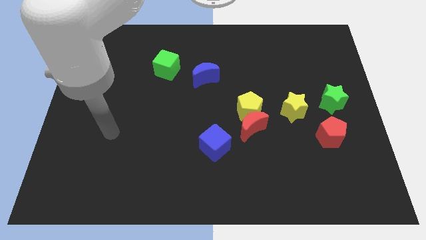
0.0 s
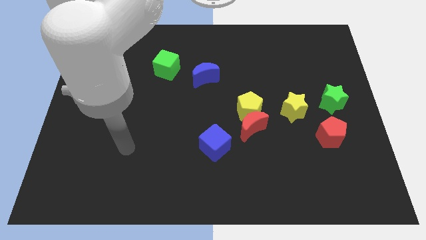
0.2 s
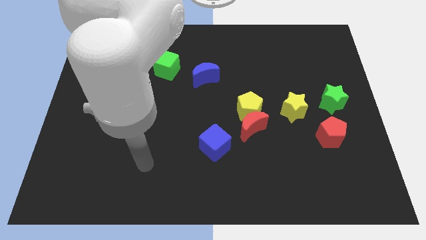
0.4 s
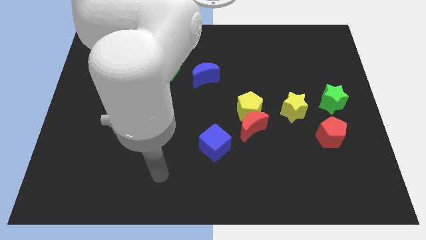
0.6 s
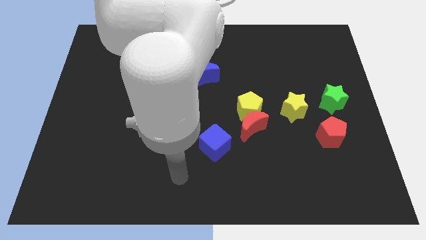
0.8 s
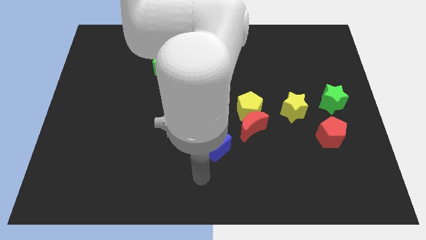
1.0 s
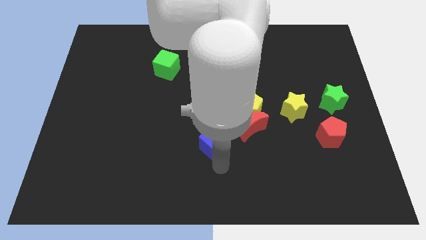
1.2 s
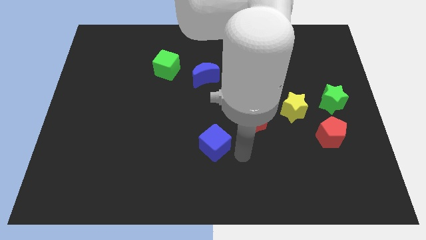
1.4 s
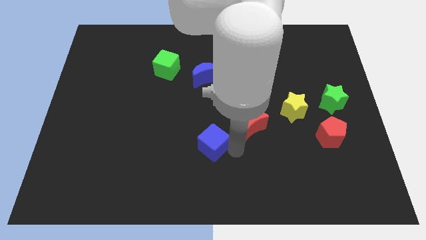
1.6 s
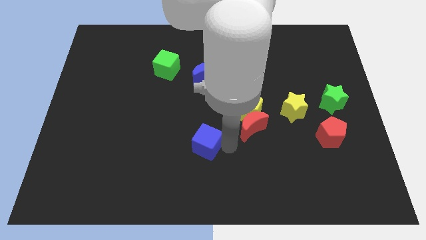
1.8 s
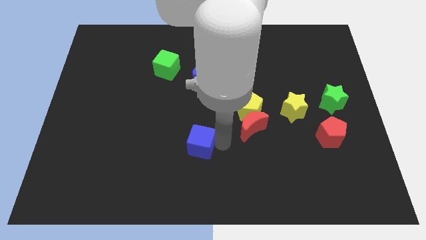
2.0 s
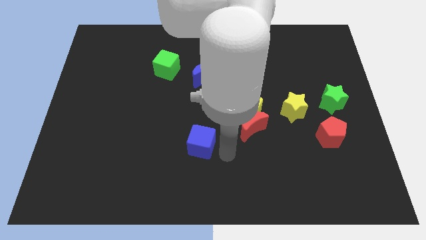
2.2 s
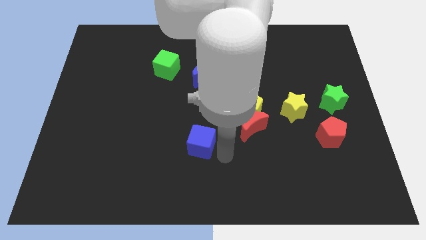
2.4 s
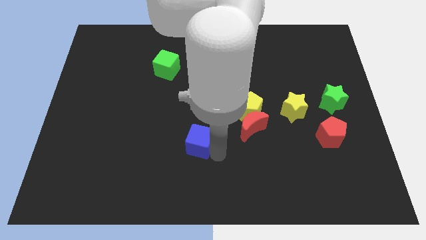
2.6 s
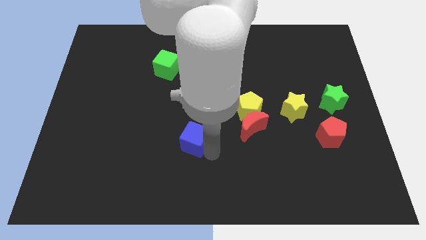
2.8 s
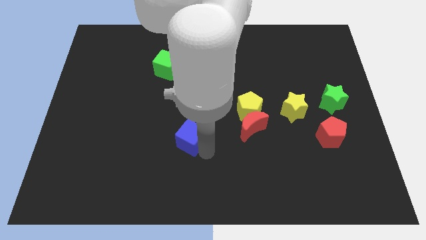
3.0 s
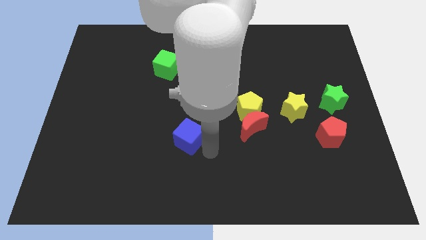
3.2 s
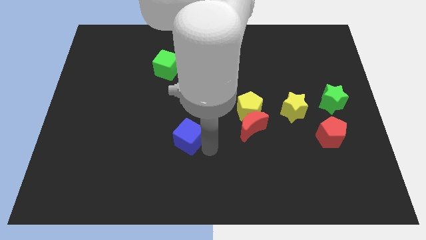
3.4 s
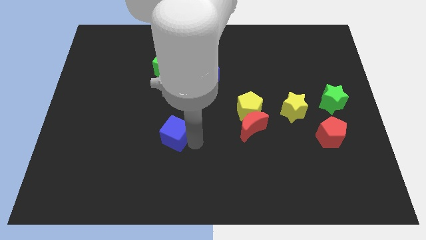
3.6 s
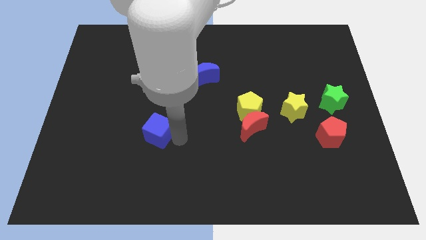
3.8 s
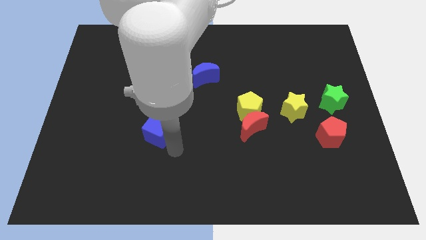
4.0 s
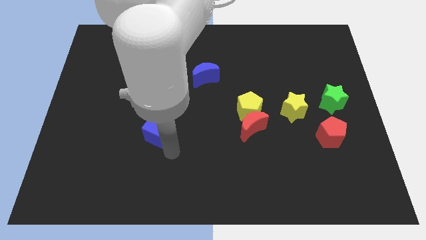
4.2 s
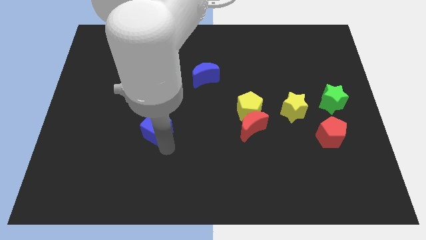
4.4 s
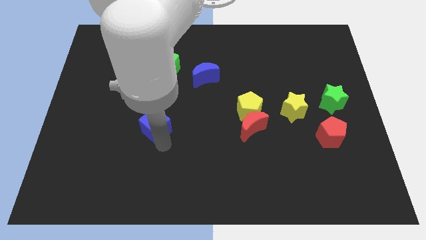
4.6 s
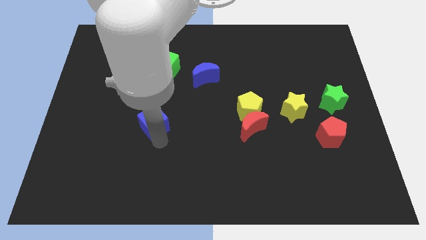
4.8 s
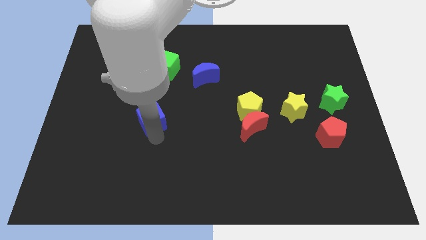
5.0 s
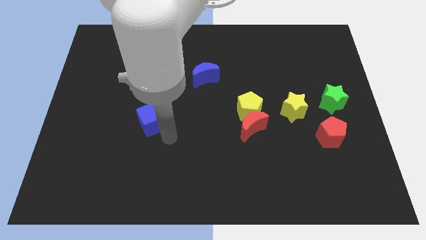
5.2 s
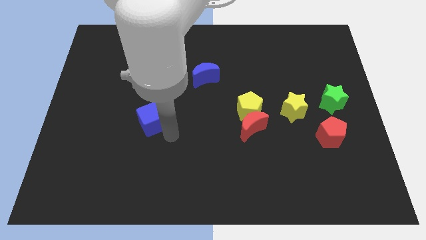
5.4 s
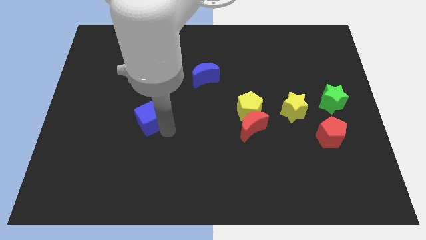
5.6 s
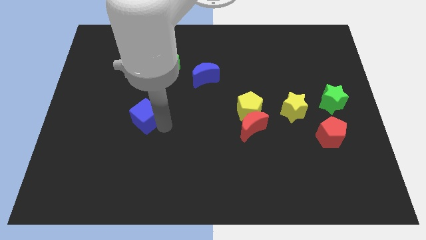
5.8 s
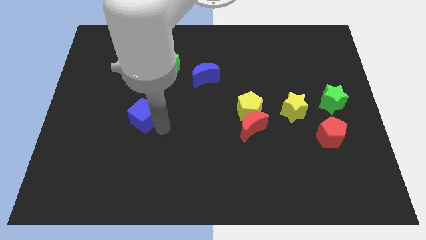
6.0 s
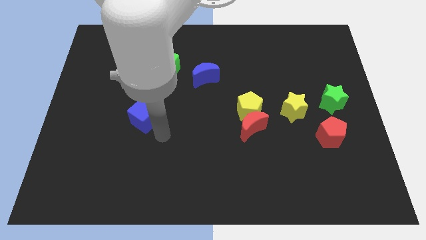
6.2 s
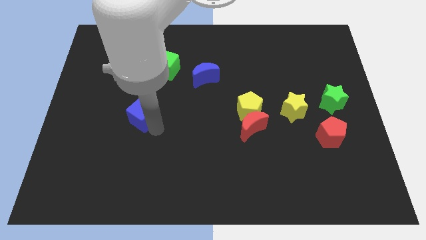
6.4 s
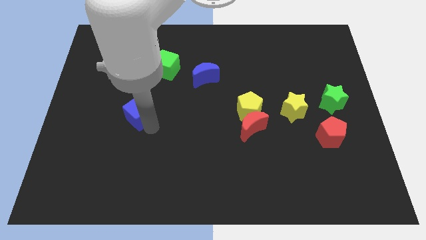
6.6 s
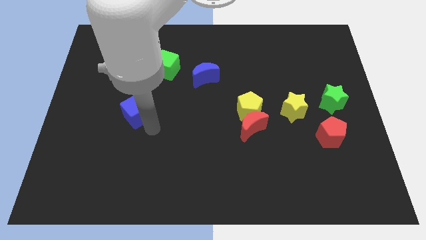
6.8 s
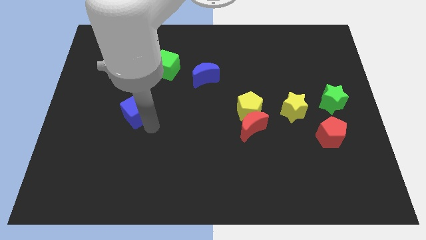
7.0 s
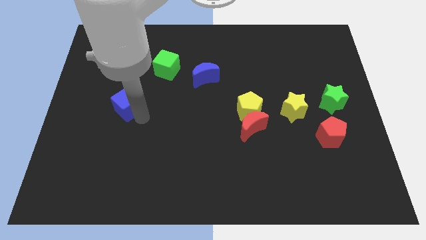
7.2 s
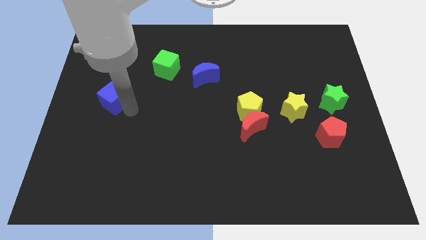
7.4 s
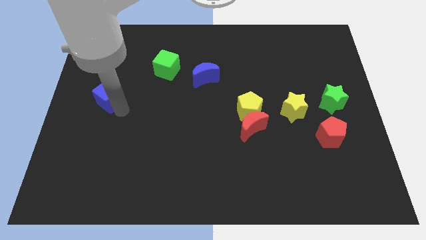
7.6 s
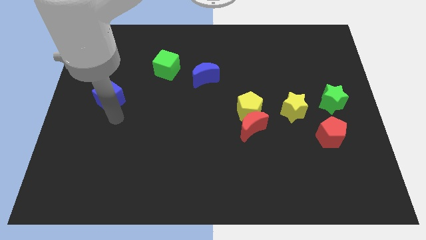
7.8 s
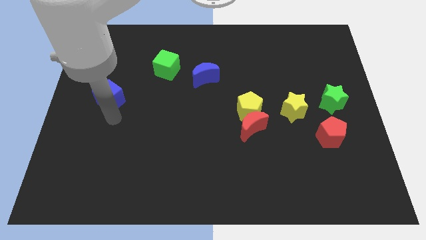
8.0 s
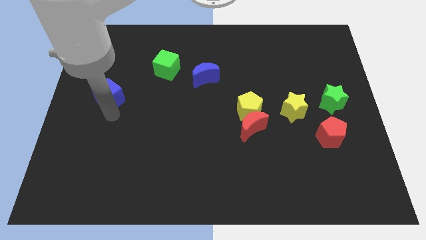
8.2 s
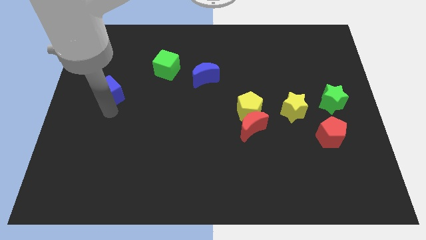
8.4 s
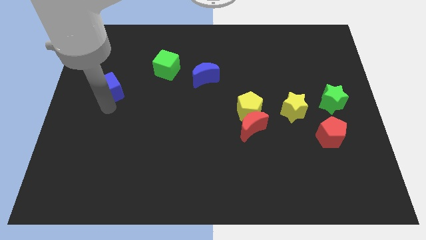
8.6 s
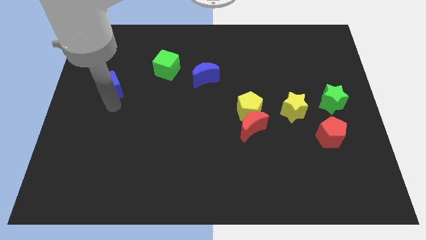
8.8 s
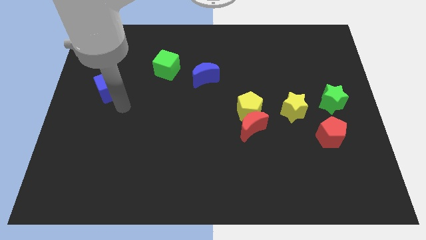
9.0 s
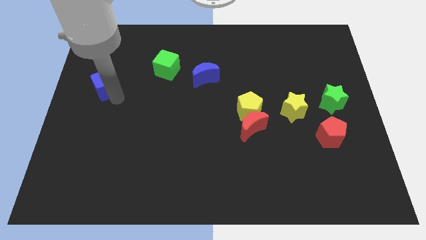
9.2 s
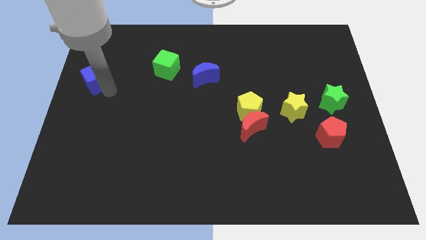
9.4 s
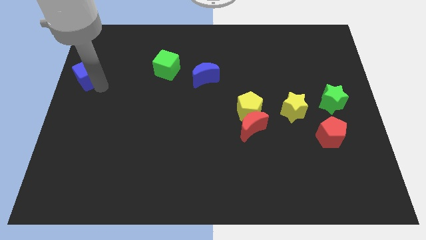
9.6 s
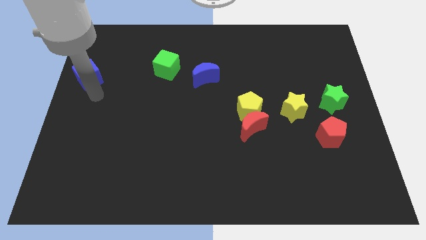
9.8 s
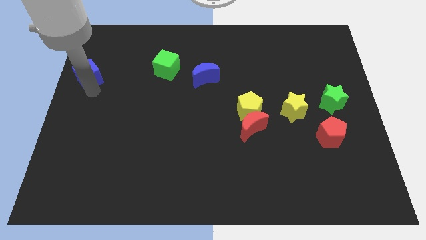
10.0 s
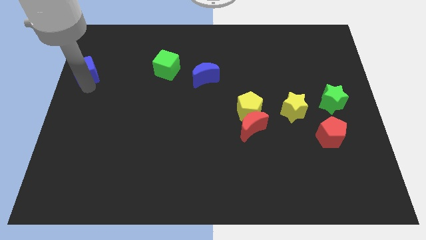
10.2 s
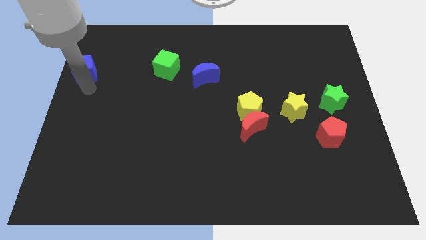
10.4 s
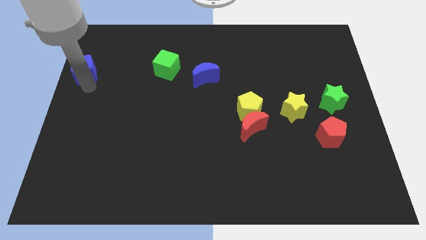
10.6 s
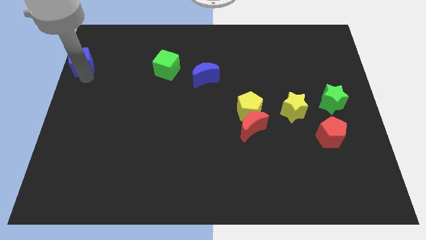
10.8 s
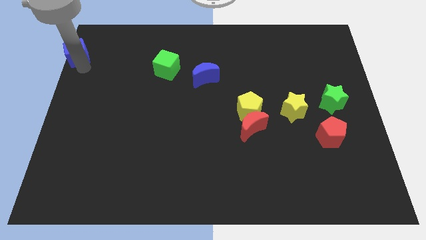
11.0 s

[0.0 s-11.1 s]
slide the blue cube to the upper left corner
